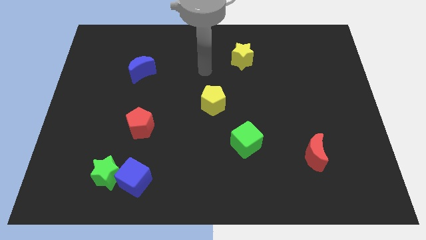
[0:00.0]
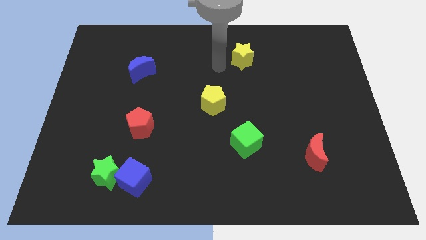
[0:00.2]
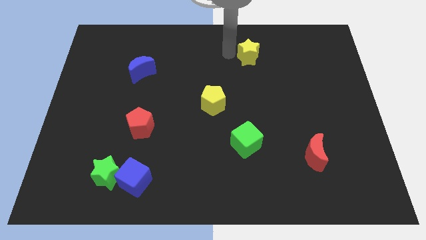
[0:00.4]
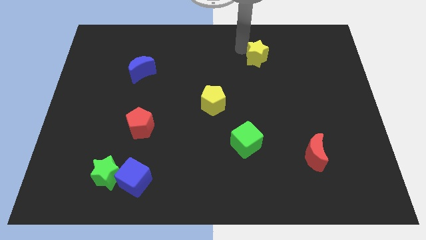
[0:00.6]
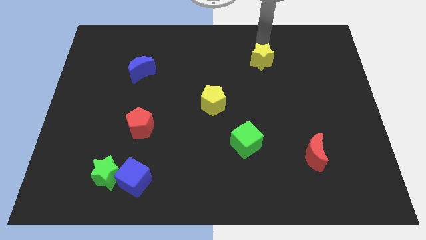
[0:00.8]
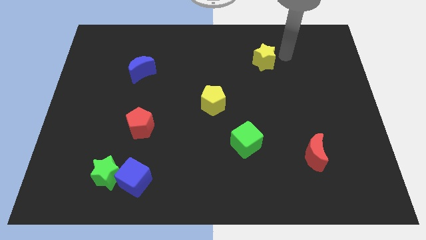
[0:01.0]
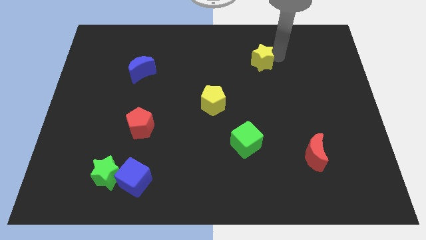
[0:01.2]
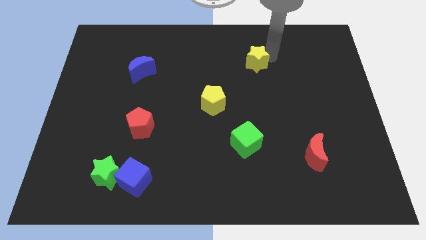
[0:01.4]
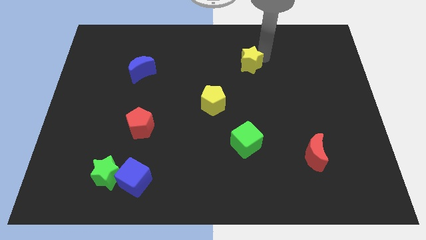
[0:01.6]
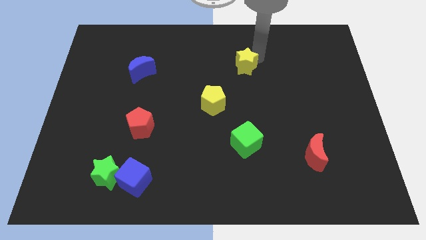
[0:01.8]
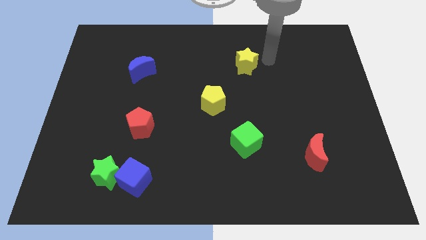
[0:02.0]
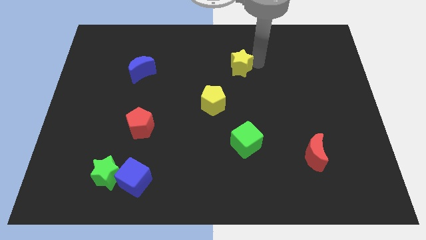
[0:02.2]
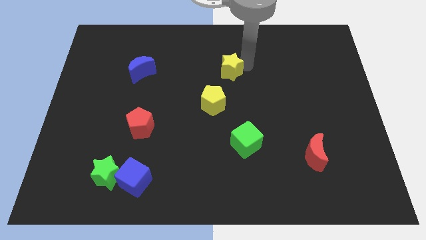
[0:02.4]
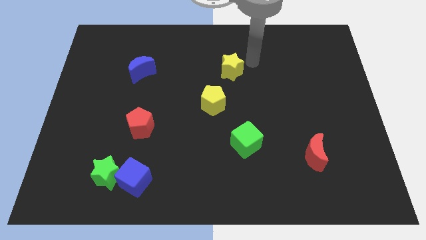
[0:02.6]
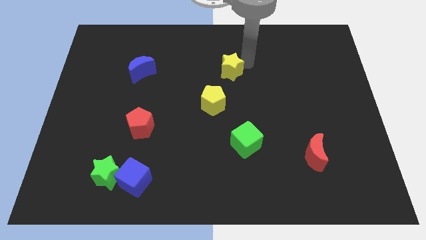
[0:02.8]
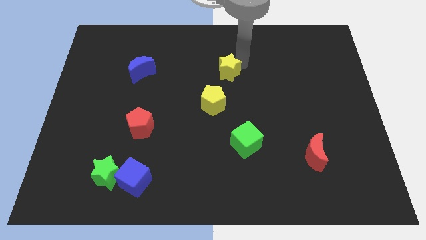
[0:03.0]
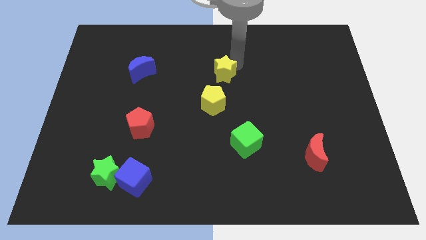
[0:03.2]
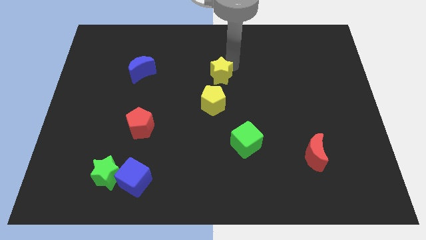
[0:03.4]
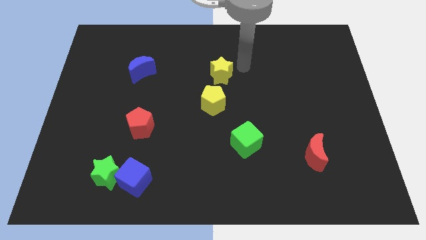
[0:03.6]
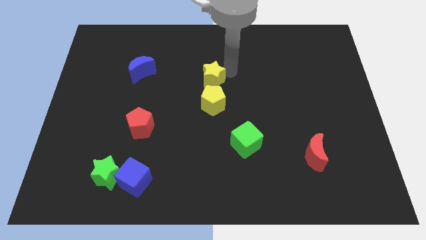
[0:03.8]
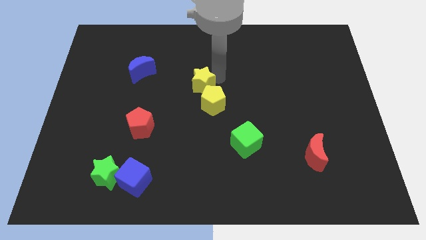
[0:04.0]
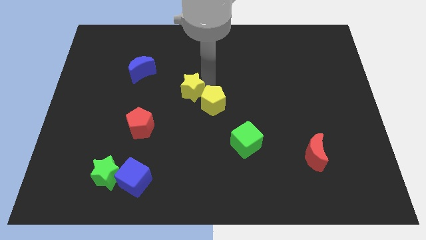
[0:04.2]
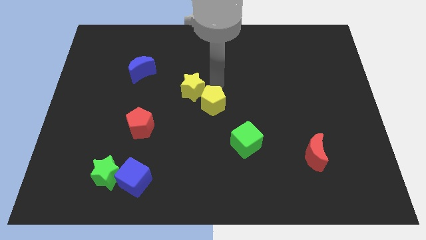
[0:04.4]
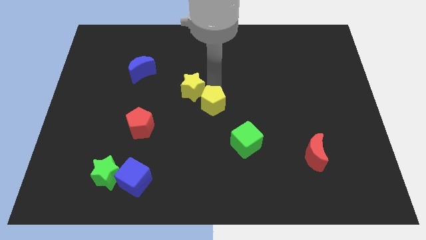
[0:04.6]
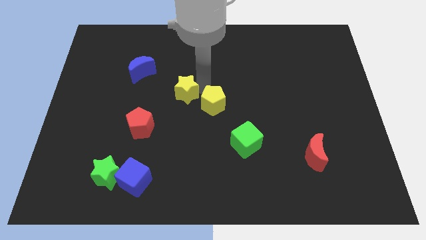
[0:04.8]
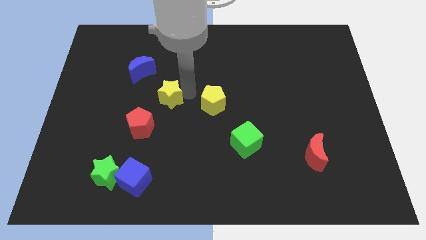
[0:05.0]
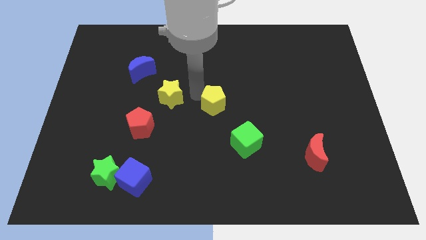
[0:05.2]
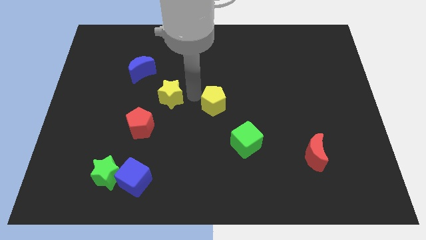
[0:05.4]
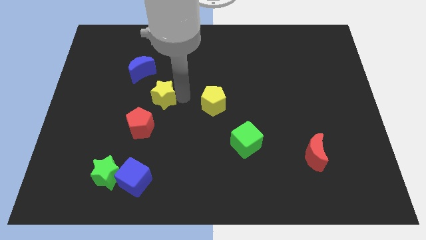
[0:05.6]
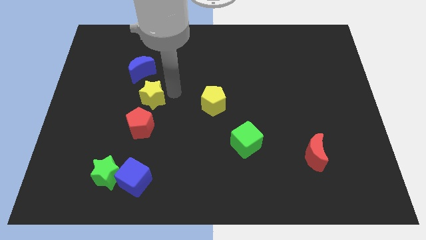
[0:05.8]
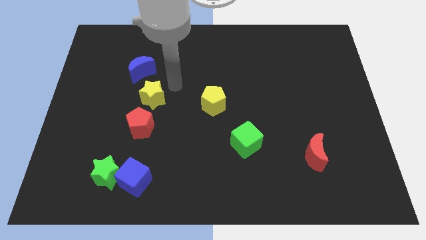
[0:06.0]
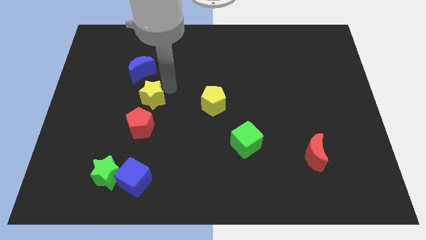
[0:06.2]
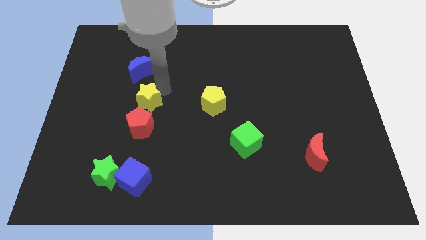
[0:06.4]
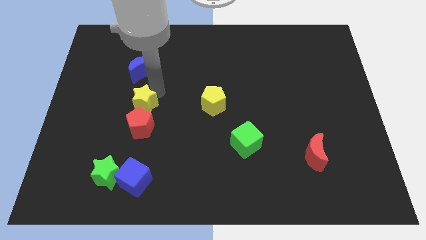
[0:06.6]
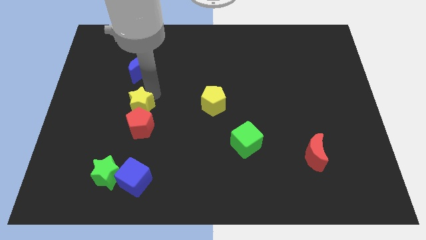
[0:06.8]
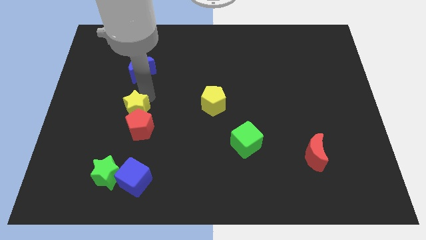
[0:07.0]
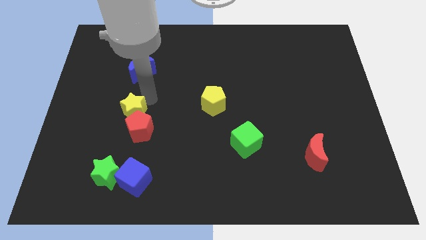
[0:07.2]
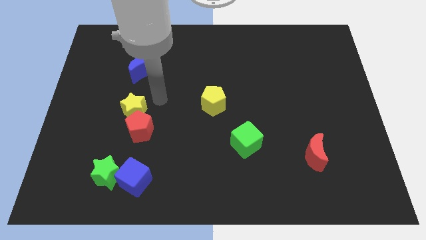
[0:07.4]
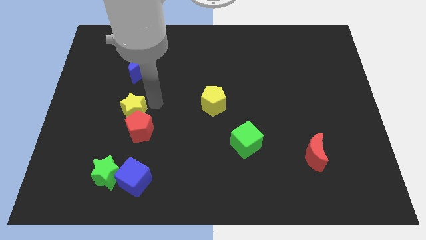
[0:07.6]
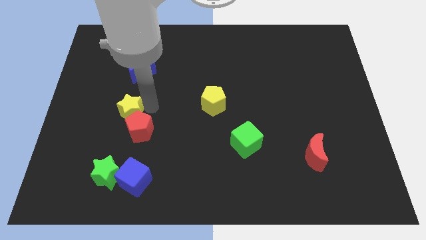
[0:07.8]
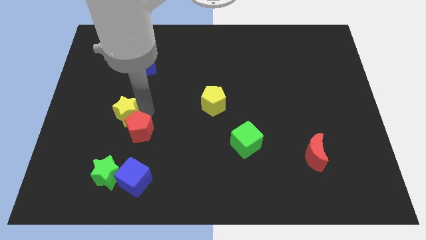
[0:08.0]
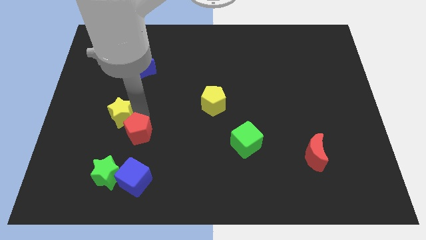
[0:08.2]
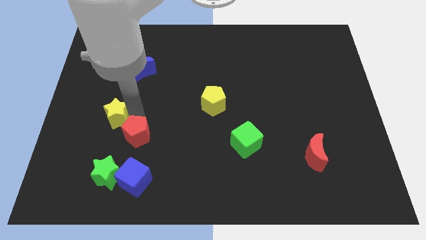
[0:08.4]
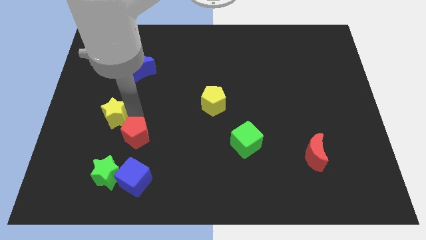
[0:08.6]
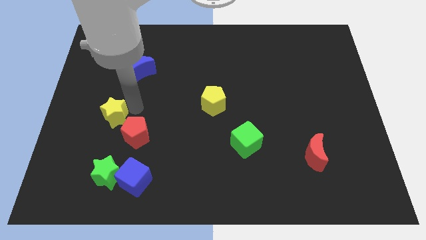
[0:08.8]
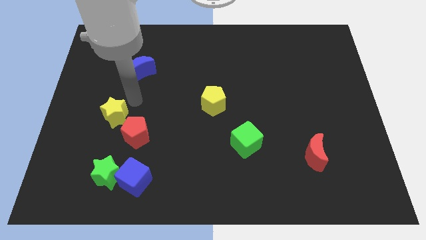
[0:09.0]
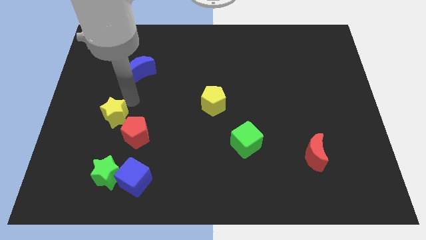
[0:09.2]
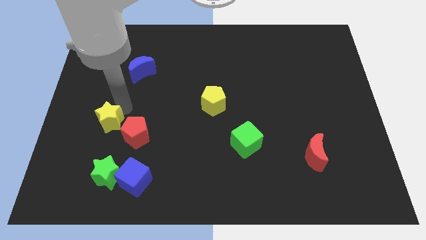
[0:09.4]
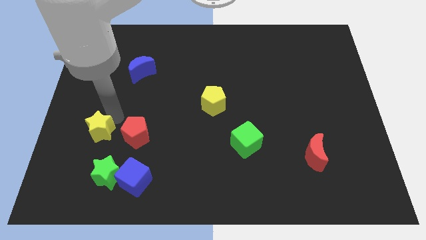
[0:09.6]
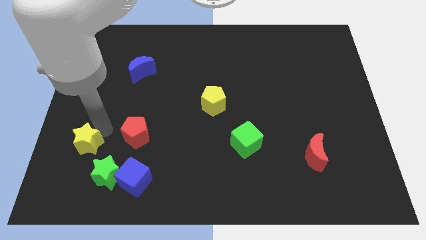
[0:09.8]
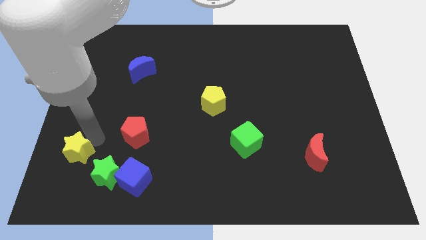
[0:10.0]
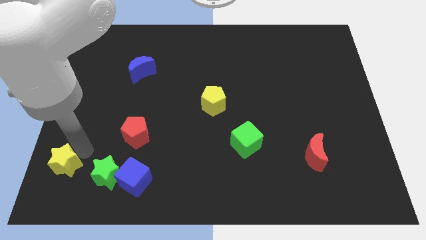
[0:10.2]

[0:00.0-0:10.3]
slide the yellow star to the bottom left

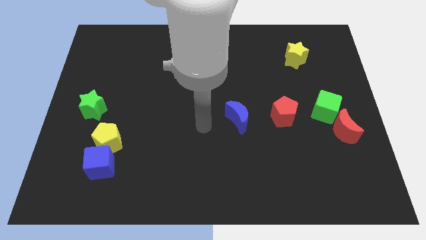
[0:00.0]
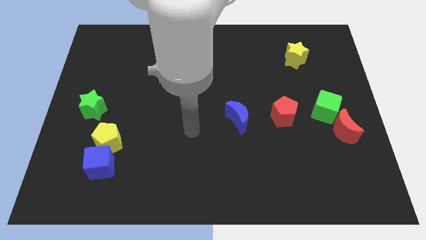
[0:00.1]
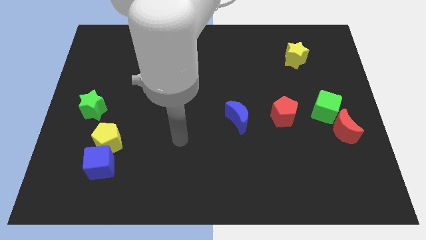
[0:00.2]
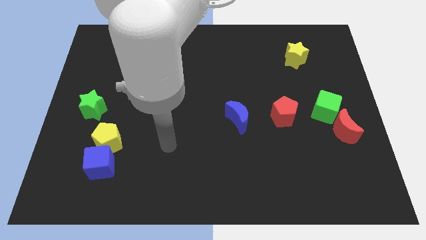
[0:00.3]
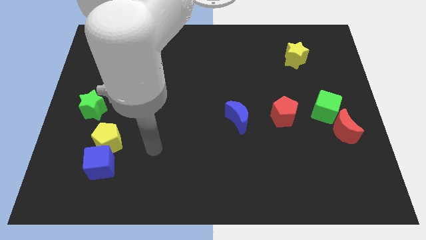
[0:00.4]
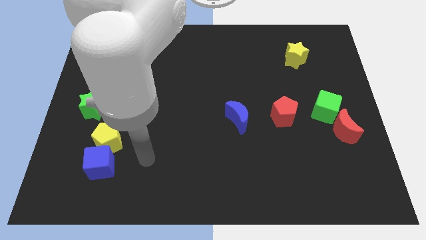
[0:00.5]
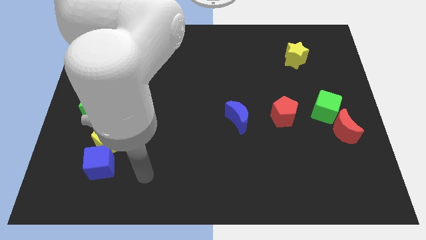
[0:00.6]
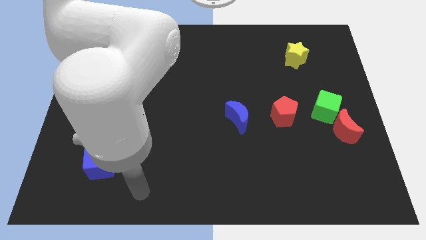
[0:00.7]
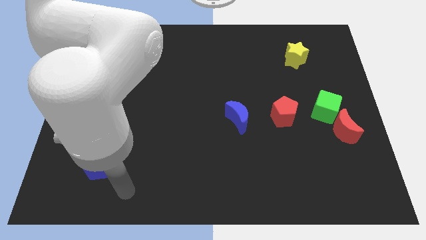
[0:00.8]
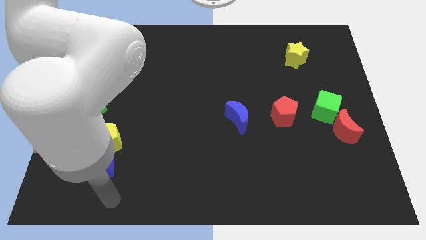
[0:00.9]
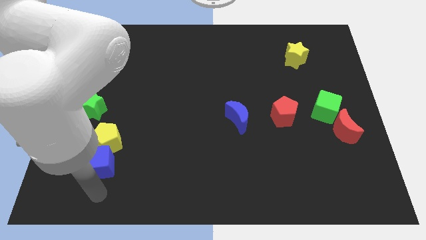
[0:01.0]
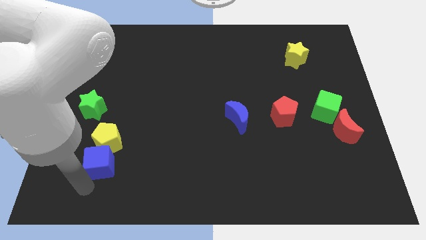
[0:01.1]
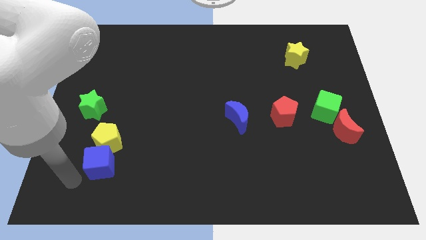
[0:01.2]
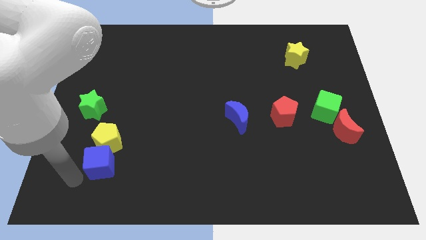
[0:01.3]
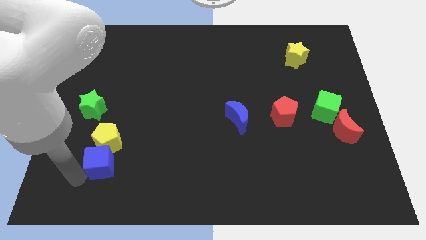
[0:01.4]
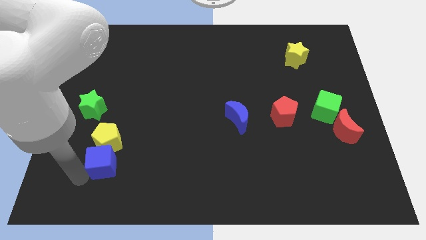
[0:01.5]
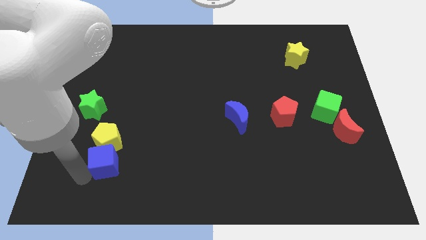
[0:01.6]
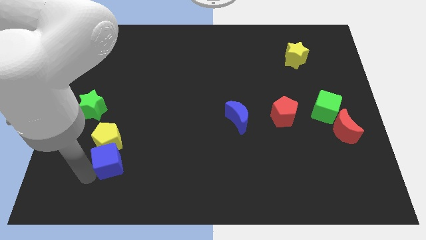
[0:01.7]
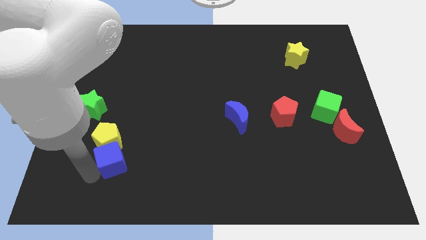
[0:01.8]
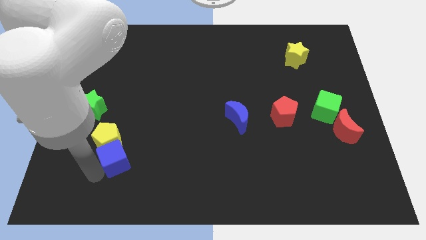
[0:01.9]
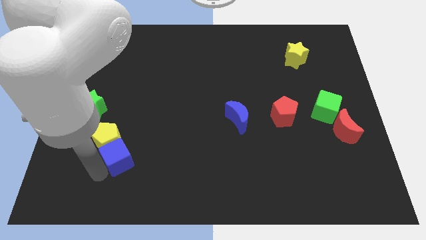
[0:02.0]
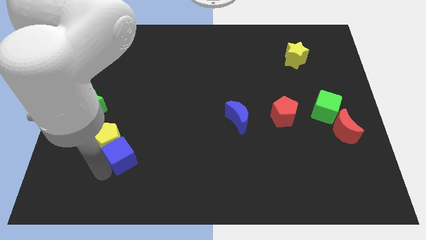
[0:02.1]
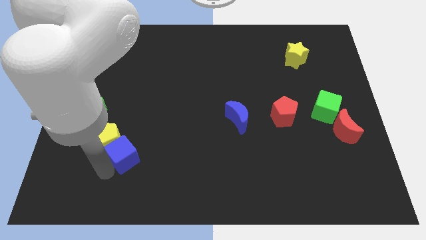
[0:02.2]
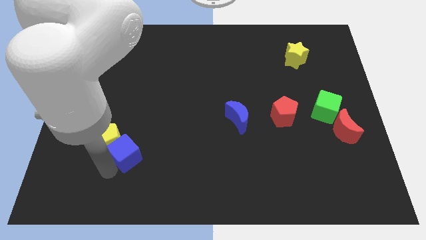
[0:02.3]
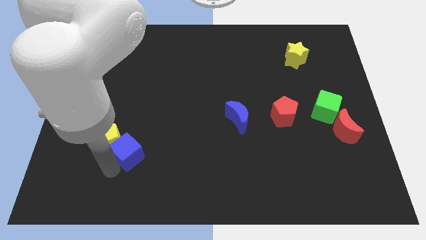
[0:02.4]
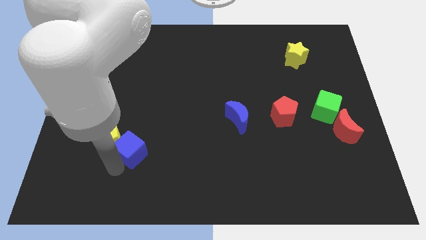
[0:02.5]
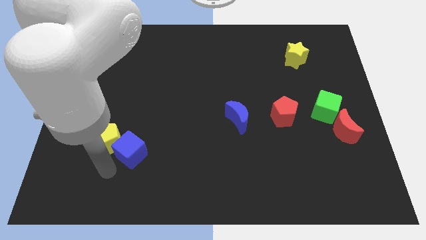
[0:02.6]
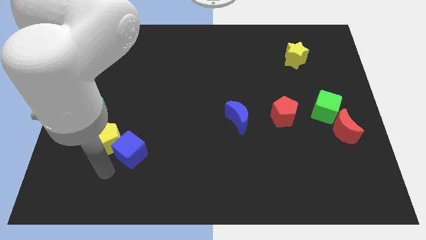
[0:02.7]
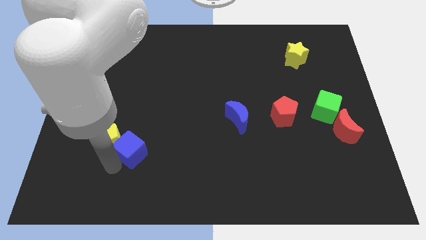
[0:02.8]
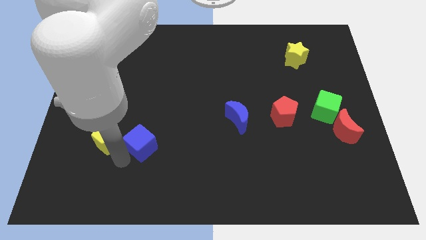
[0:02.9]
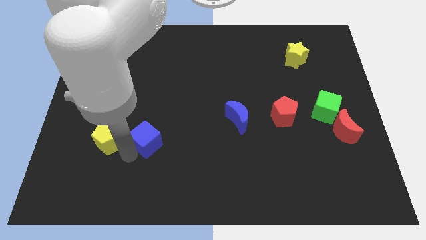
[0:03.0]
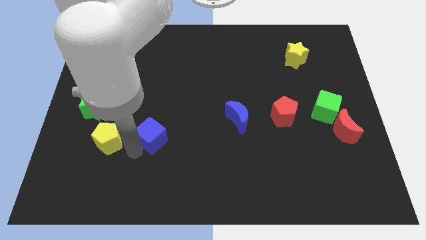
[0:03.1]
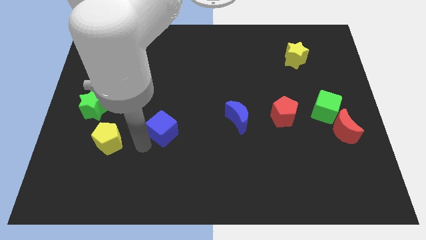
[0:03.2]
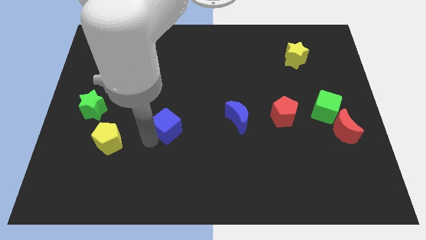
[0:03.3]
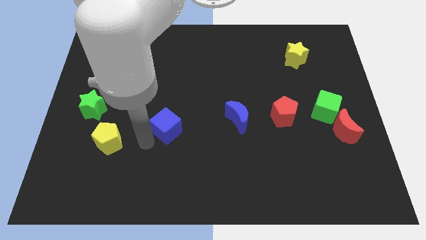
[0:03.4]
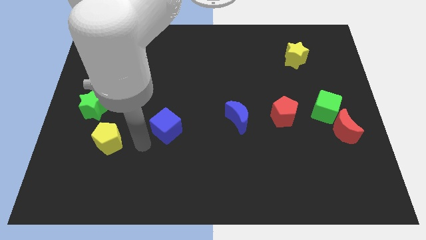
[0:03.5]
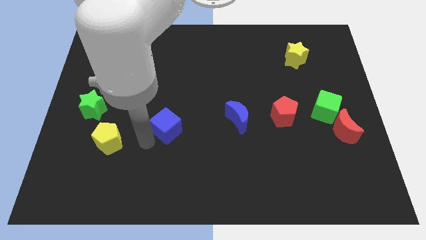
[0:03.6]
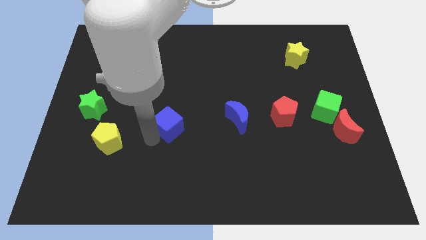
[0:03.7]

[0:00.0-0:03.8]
move the blue cube to the center of the board
